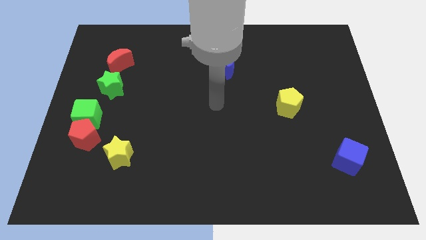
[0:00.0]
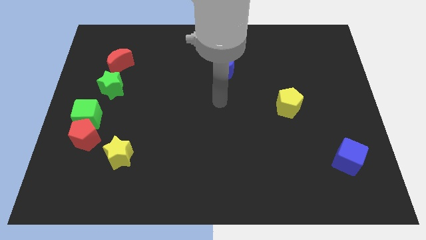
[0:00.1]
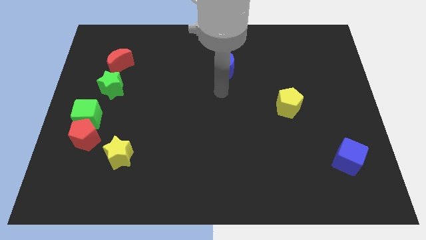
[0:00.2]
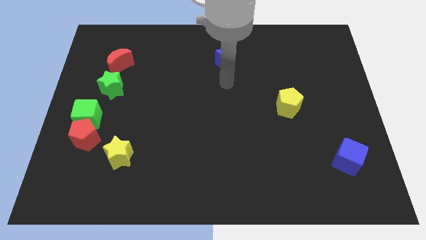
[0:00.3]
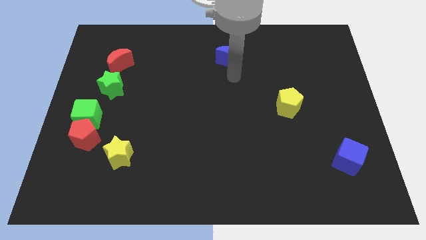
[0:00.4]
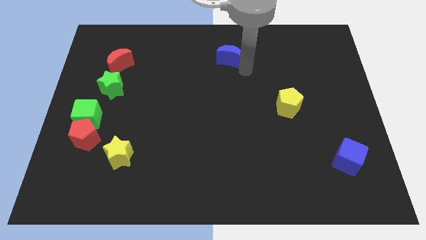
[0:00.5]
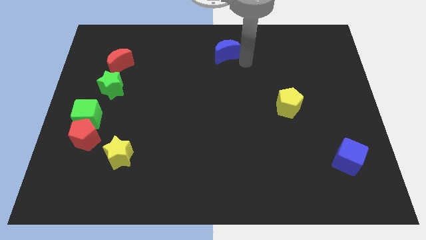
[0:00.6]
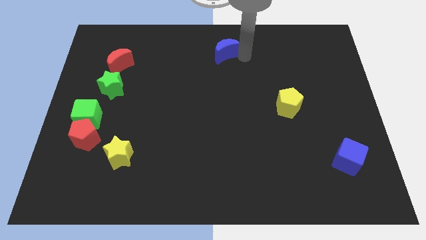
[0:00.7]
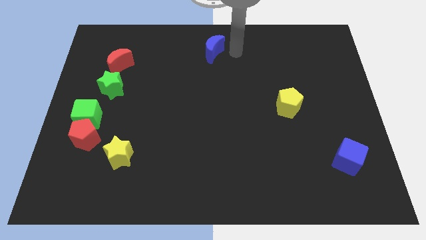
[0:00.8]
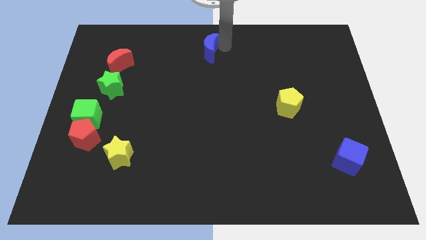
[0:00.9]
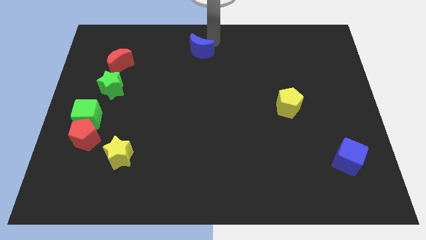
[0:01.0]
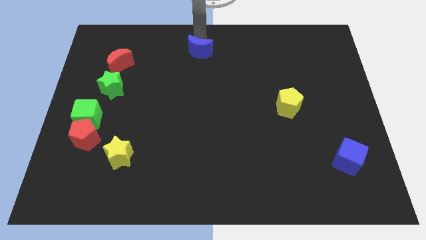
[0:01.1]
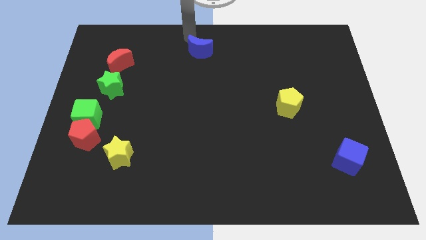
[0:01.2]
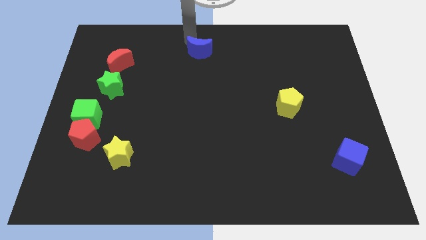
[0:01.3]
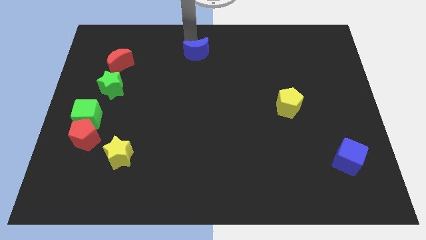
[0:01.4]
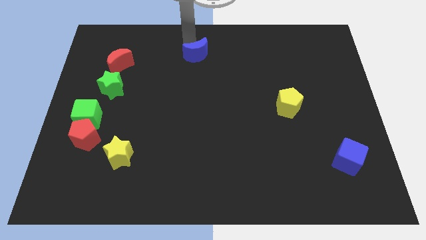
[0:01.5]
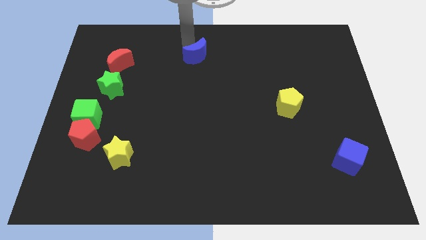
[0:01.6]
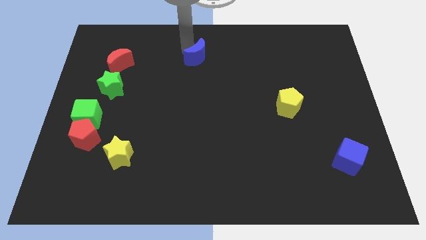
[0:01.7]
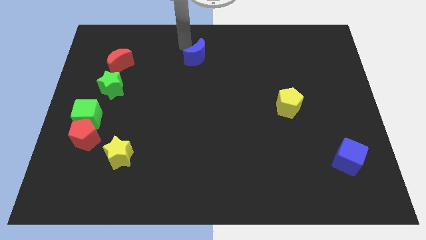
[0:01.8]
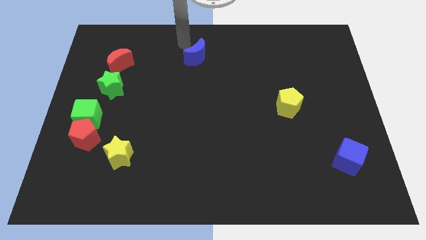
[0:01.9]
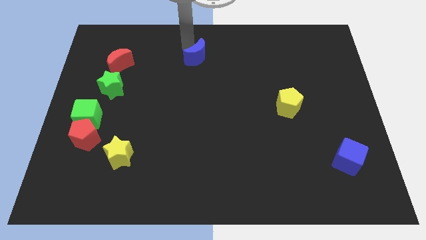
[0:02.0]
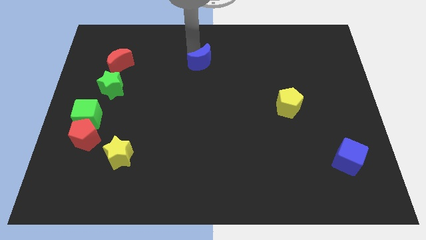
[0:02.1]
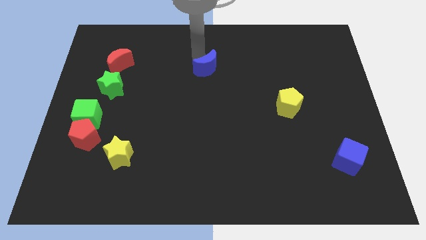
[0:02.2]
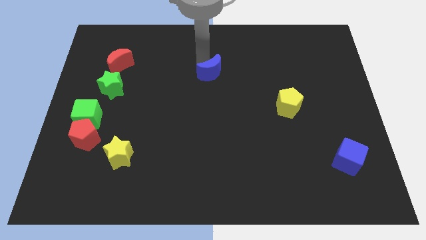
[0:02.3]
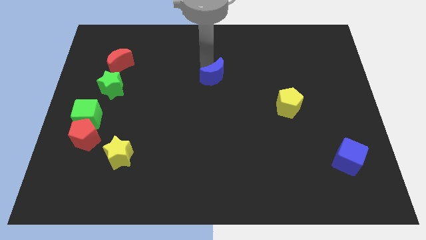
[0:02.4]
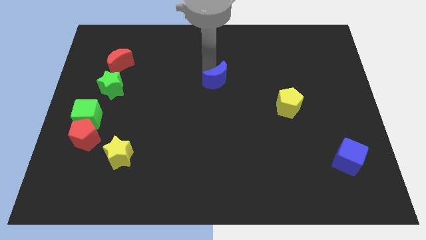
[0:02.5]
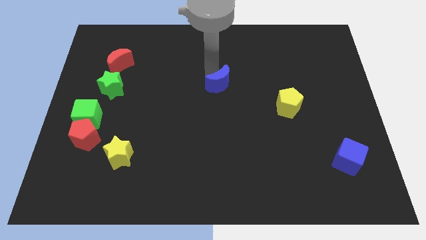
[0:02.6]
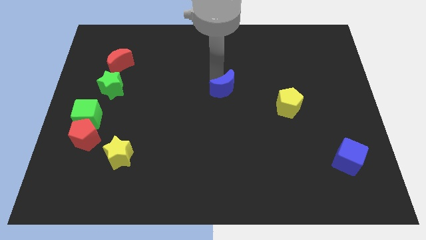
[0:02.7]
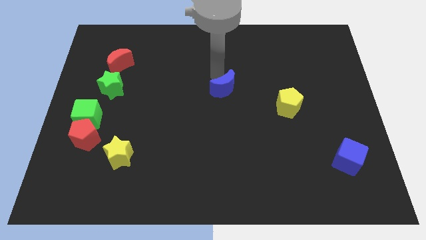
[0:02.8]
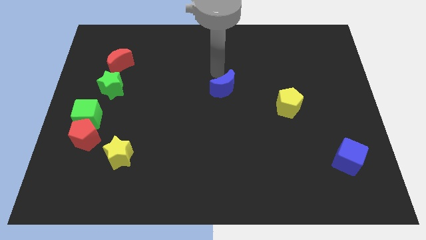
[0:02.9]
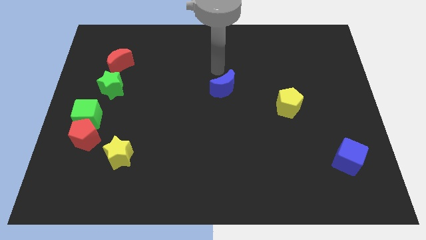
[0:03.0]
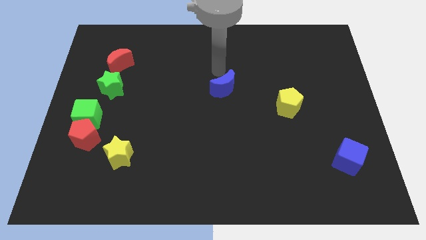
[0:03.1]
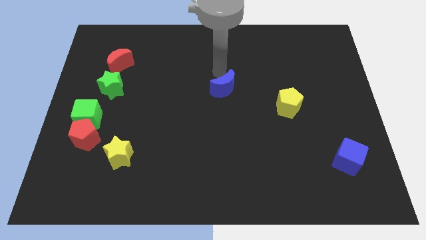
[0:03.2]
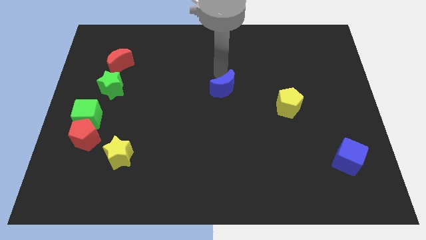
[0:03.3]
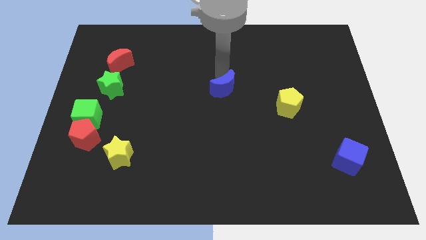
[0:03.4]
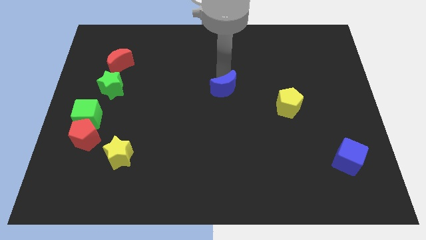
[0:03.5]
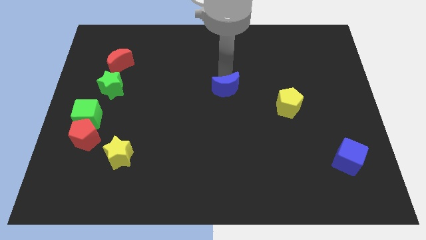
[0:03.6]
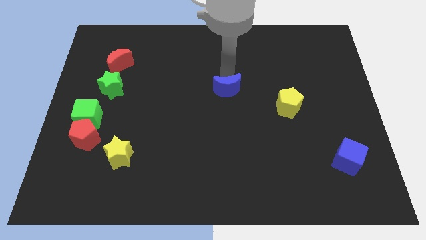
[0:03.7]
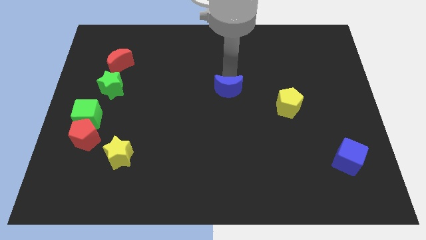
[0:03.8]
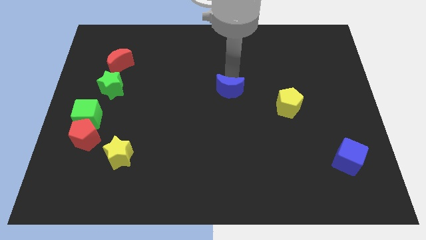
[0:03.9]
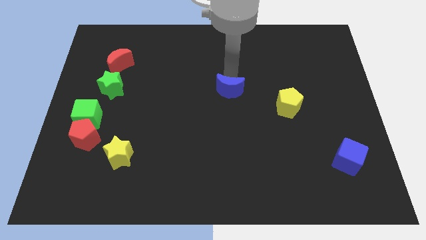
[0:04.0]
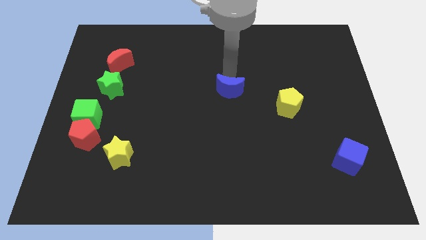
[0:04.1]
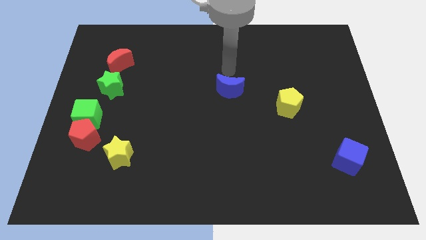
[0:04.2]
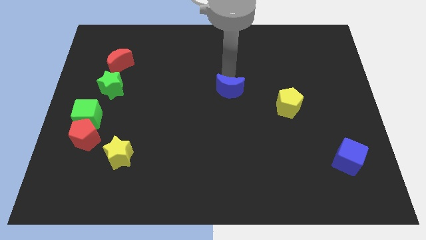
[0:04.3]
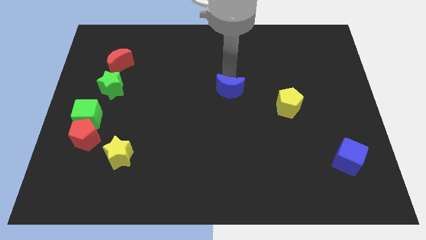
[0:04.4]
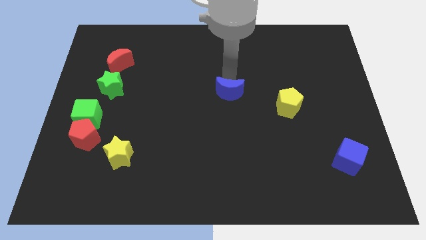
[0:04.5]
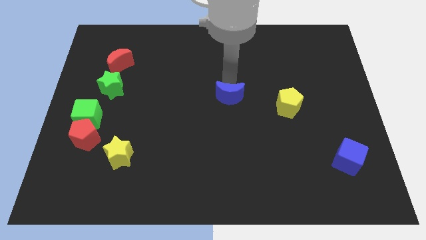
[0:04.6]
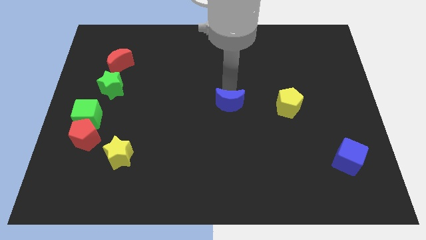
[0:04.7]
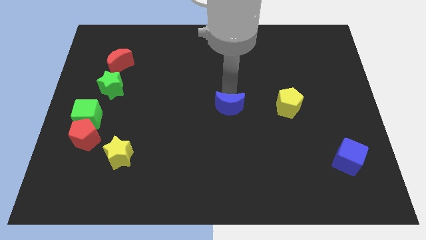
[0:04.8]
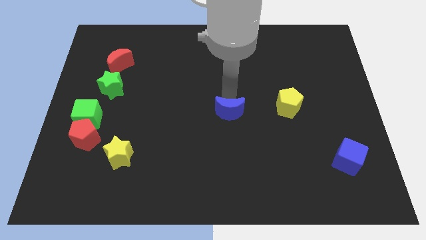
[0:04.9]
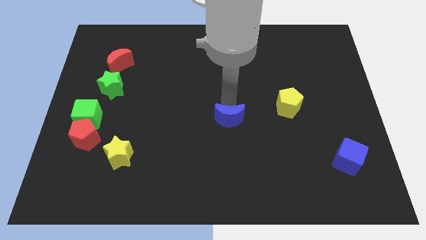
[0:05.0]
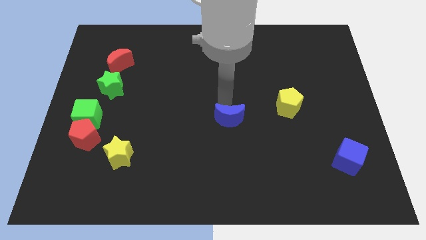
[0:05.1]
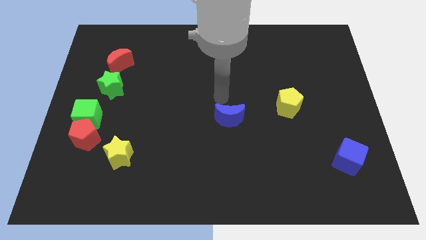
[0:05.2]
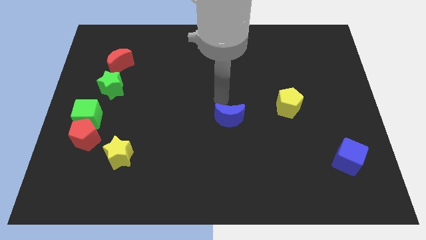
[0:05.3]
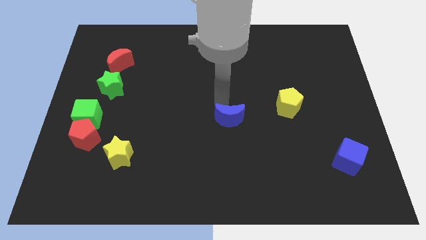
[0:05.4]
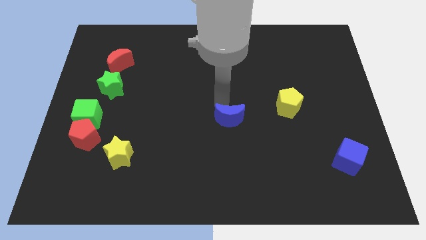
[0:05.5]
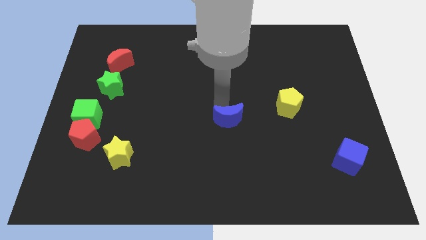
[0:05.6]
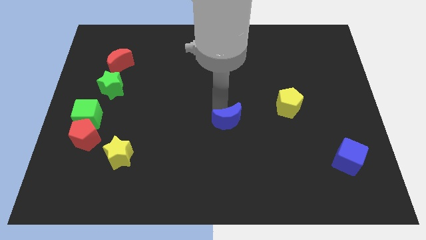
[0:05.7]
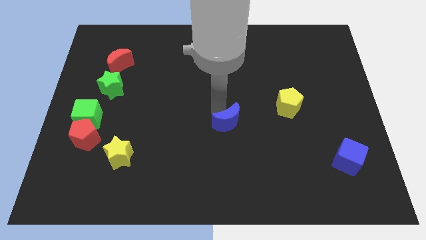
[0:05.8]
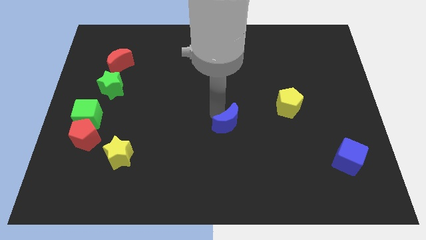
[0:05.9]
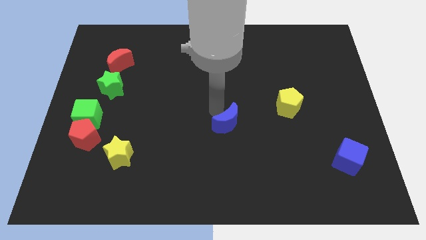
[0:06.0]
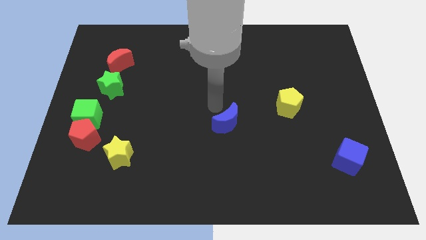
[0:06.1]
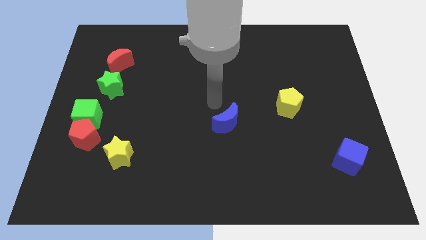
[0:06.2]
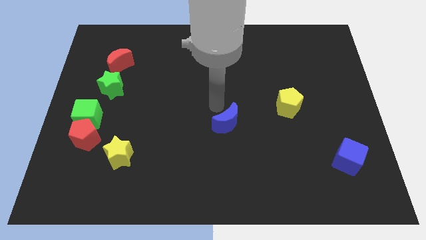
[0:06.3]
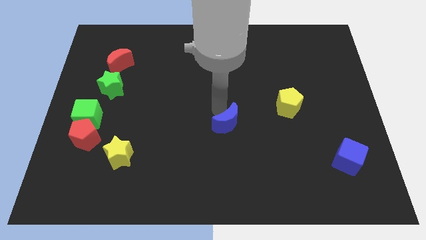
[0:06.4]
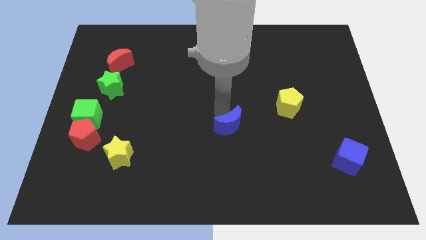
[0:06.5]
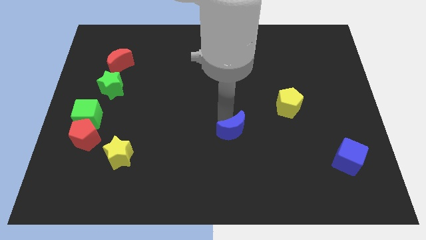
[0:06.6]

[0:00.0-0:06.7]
slide the blue moon downwards

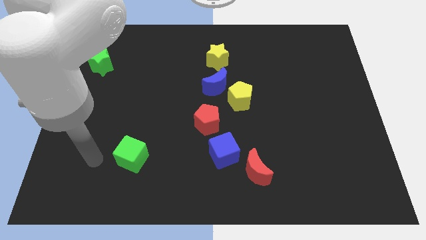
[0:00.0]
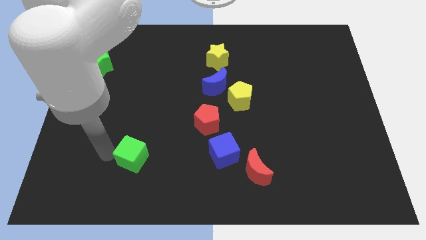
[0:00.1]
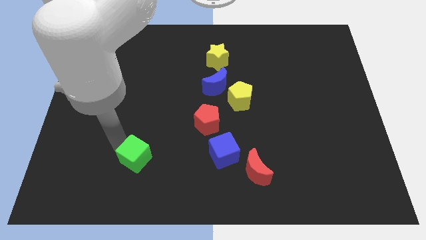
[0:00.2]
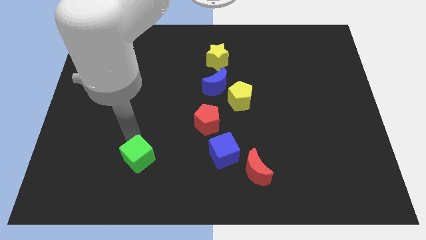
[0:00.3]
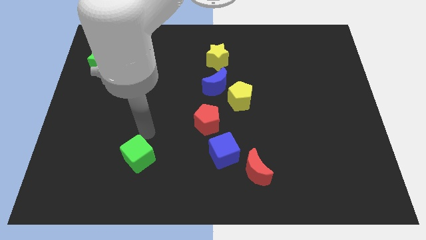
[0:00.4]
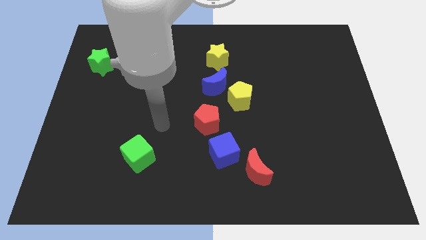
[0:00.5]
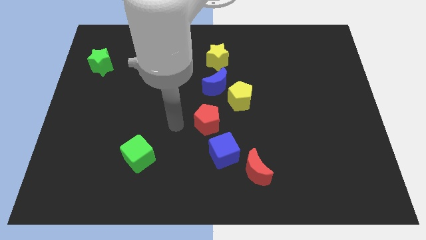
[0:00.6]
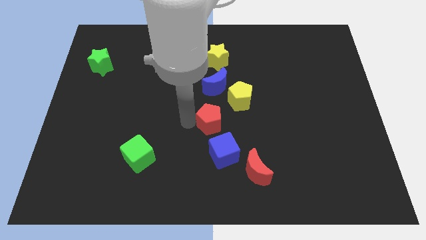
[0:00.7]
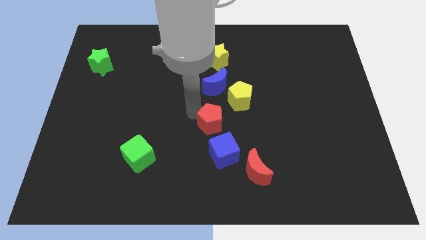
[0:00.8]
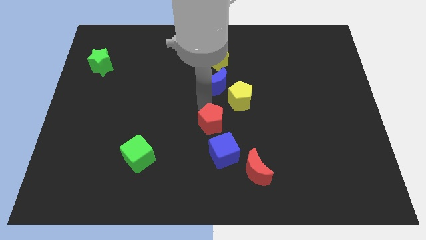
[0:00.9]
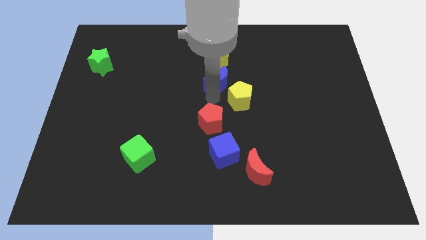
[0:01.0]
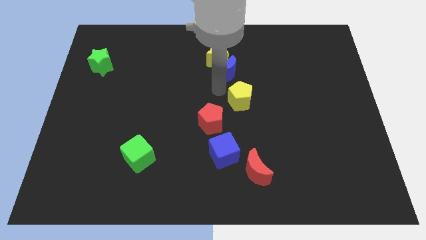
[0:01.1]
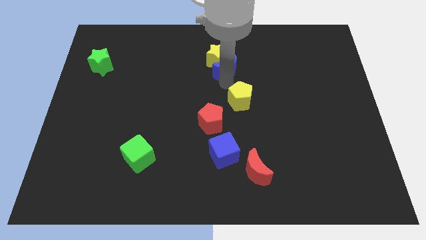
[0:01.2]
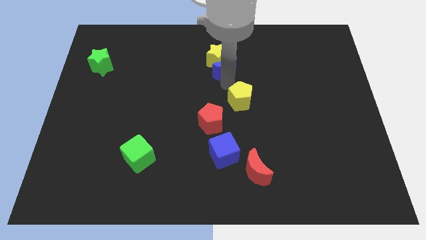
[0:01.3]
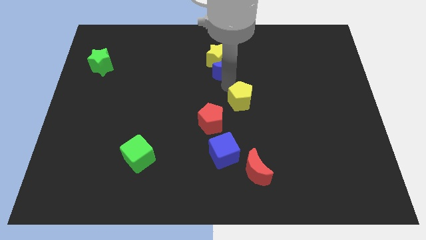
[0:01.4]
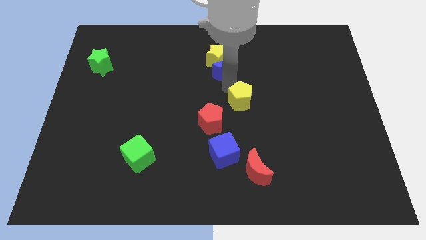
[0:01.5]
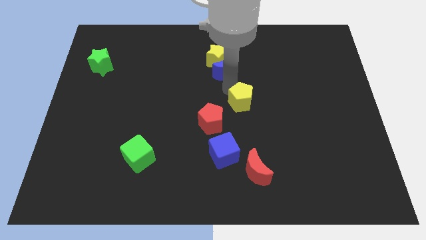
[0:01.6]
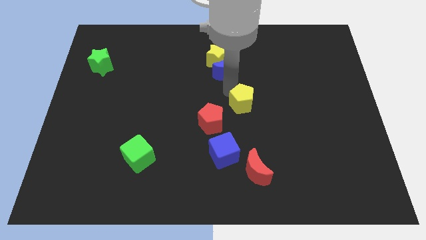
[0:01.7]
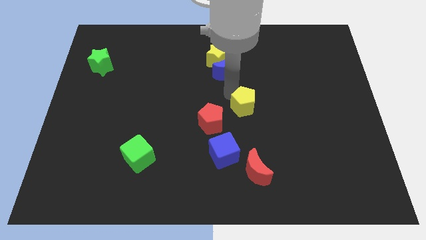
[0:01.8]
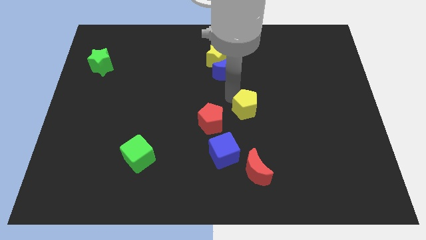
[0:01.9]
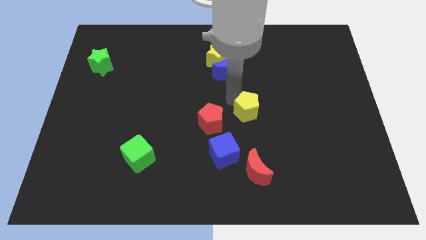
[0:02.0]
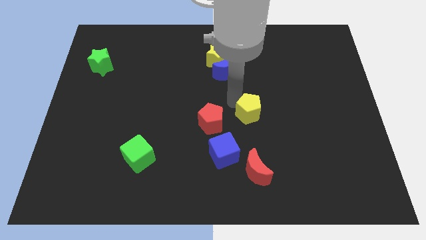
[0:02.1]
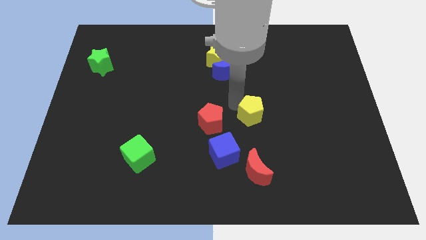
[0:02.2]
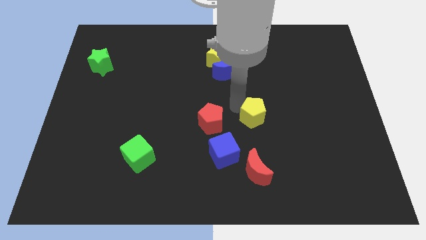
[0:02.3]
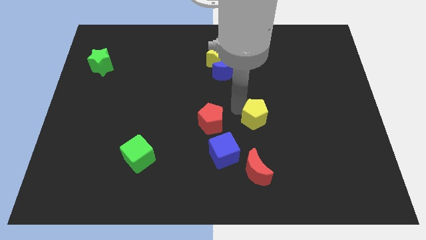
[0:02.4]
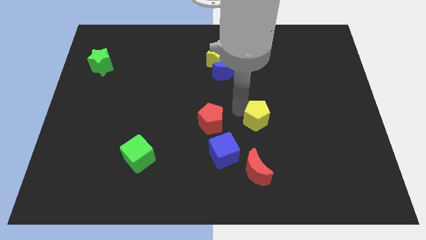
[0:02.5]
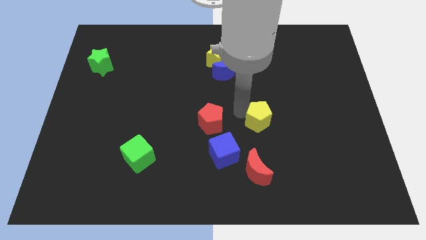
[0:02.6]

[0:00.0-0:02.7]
slightly push the yellow pentagon downwards and to the right
